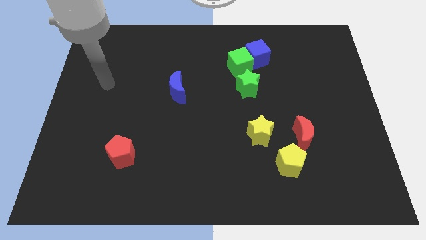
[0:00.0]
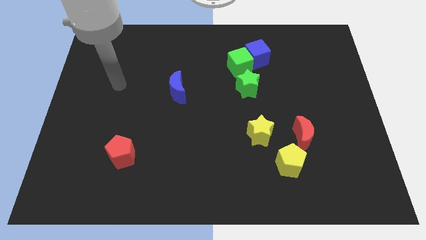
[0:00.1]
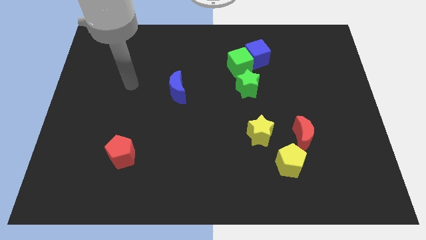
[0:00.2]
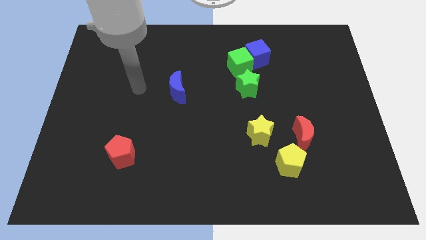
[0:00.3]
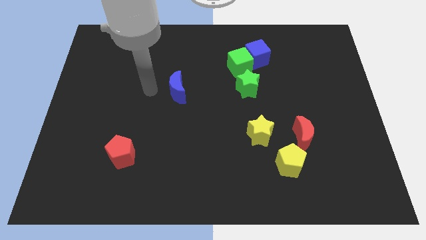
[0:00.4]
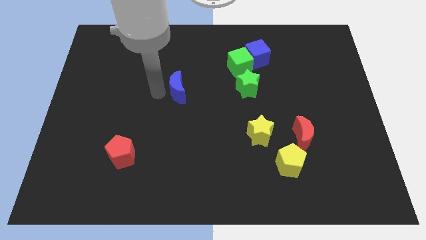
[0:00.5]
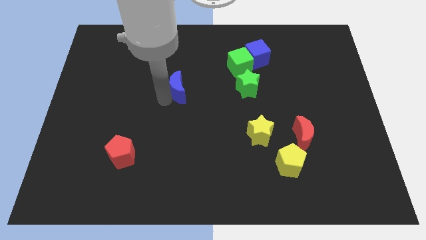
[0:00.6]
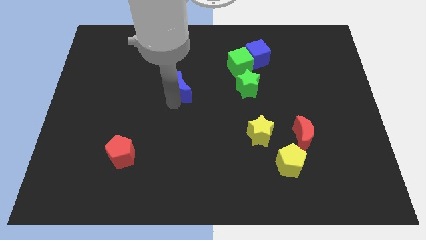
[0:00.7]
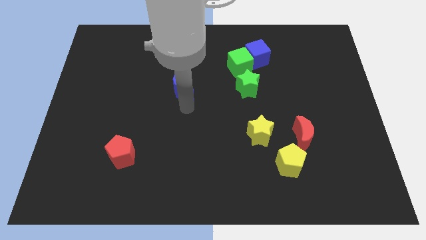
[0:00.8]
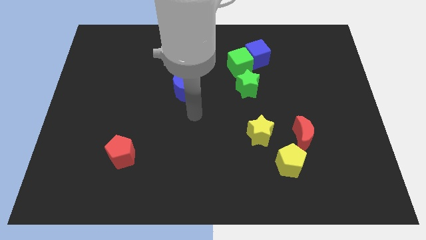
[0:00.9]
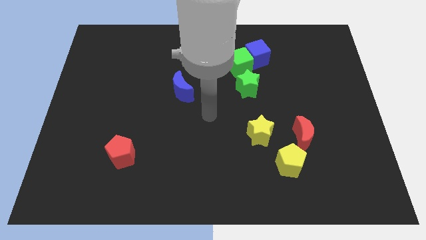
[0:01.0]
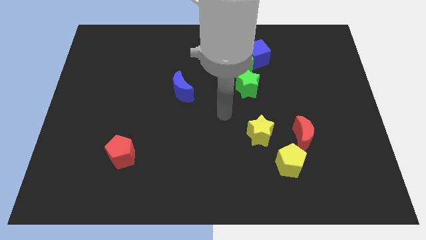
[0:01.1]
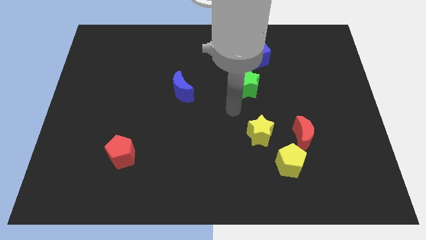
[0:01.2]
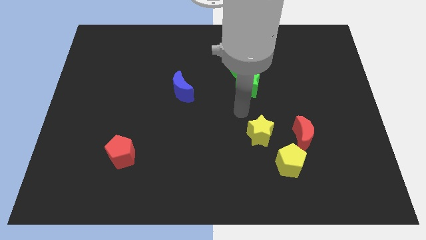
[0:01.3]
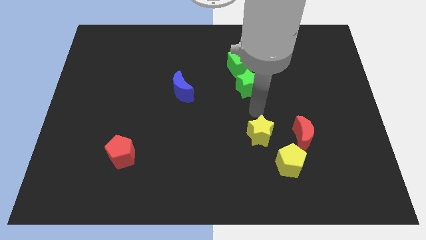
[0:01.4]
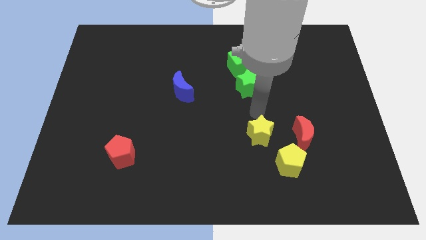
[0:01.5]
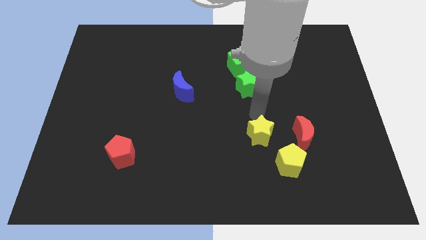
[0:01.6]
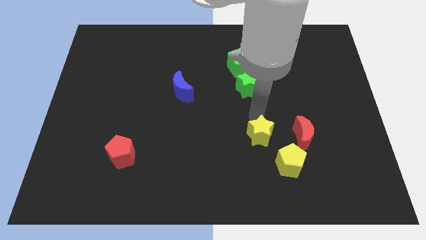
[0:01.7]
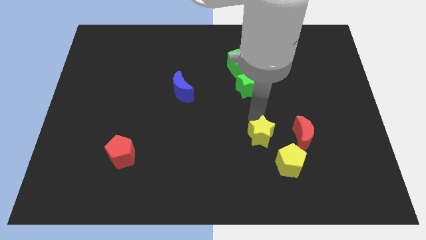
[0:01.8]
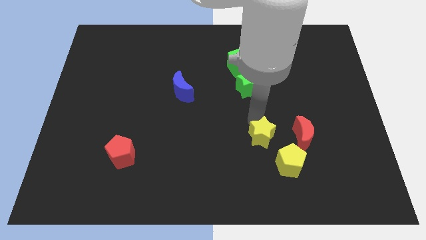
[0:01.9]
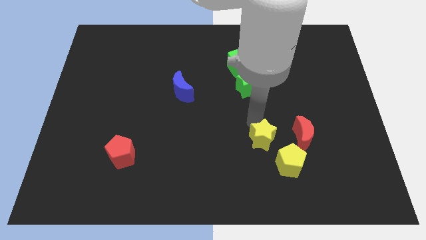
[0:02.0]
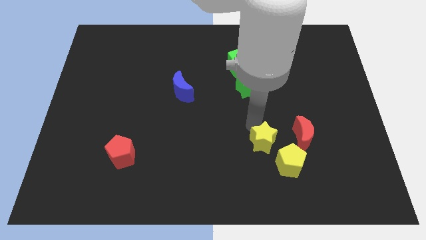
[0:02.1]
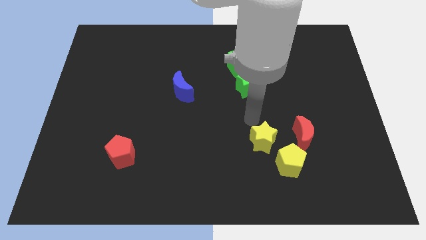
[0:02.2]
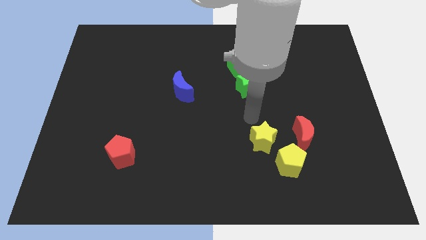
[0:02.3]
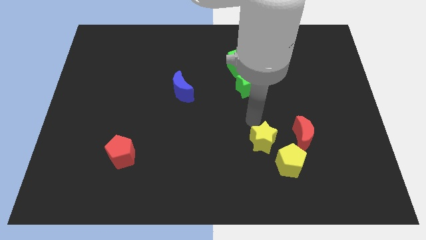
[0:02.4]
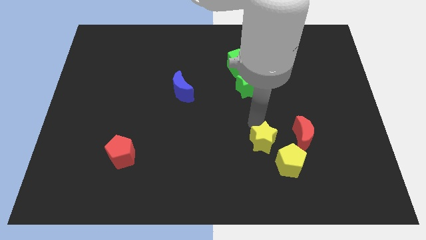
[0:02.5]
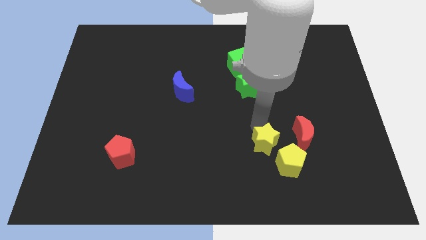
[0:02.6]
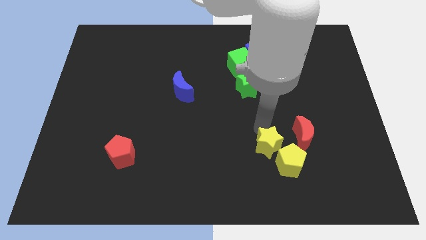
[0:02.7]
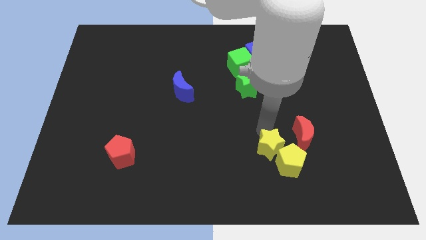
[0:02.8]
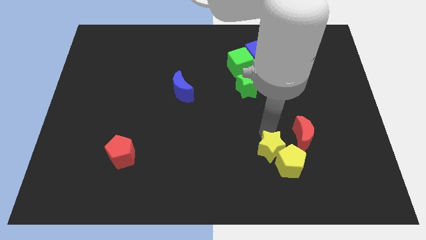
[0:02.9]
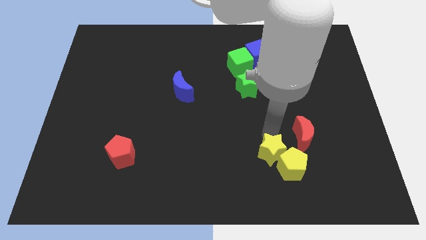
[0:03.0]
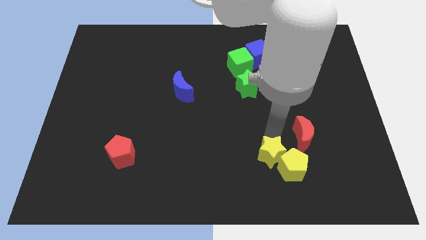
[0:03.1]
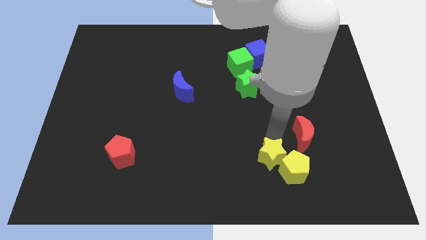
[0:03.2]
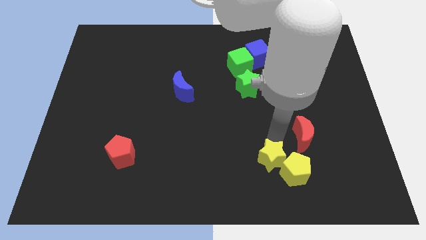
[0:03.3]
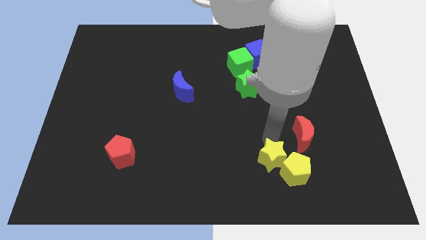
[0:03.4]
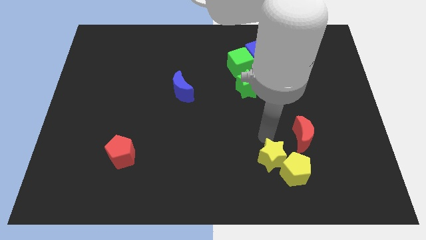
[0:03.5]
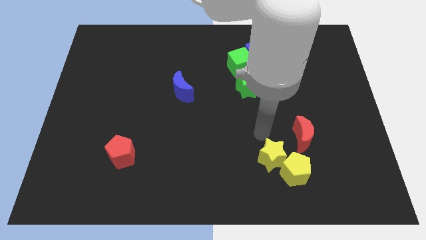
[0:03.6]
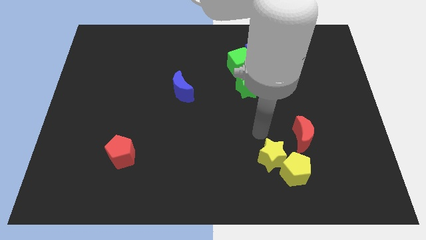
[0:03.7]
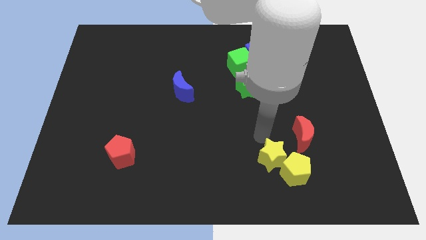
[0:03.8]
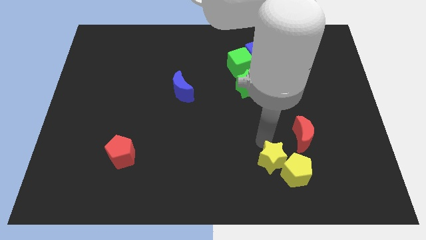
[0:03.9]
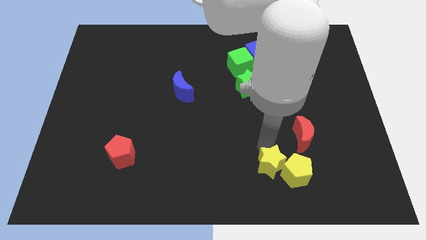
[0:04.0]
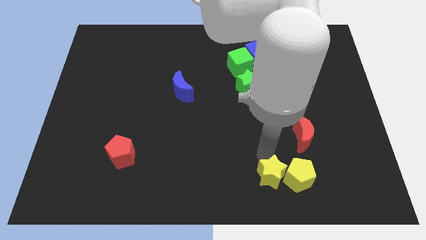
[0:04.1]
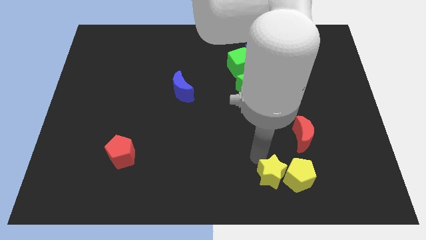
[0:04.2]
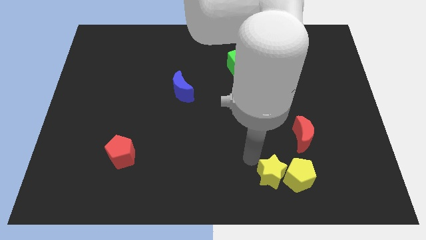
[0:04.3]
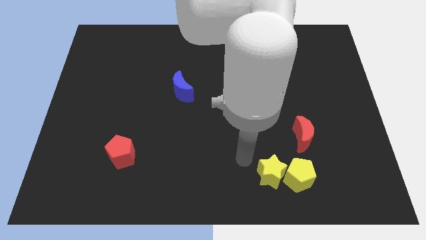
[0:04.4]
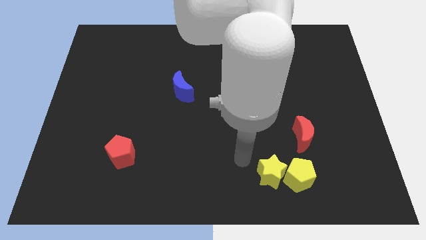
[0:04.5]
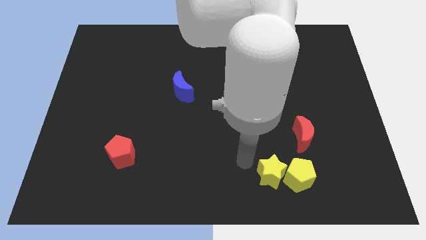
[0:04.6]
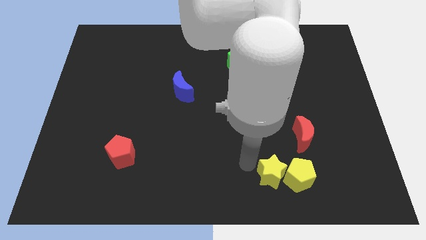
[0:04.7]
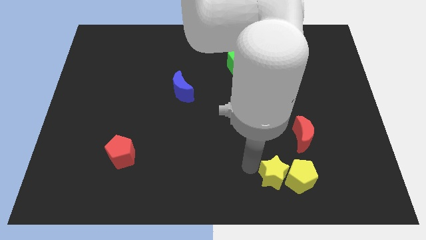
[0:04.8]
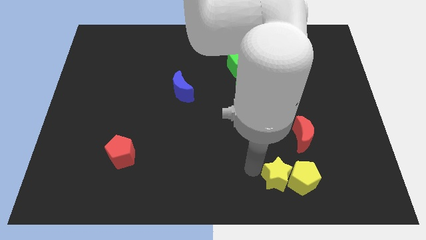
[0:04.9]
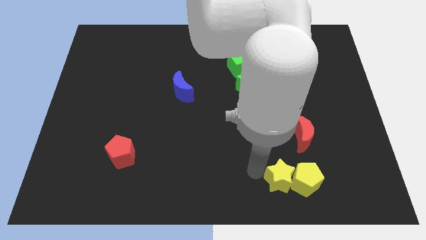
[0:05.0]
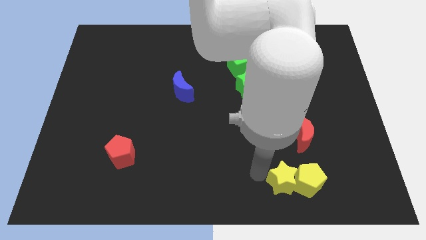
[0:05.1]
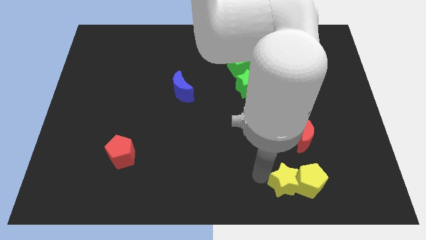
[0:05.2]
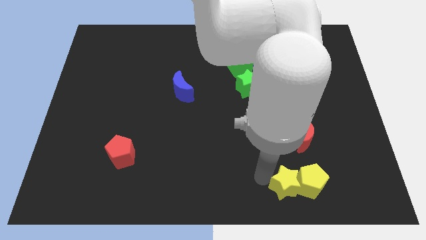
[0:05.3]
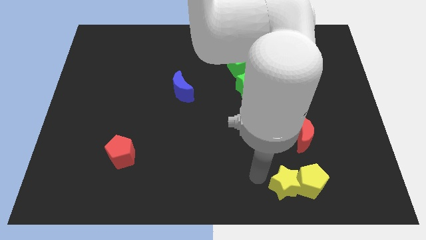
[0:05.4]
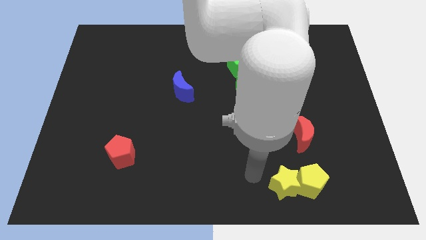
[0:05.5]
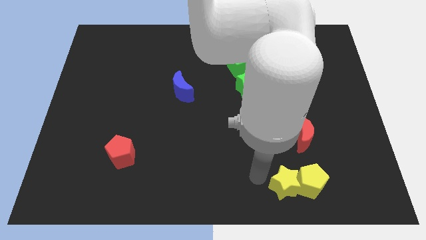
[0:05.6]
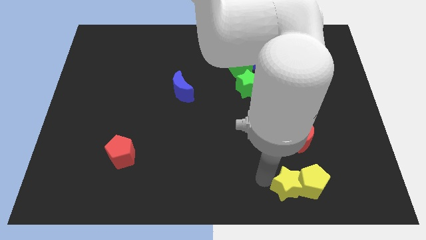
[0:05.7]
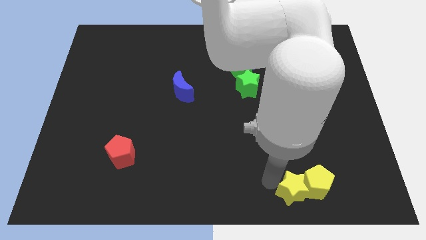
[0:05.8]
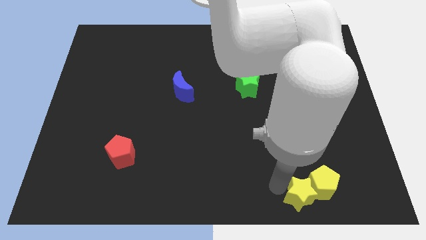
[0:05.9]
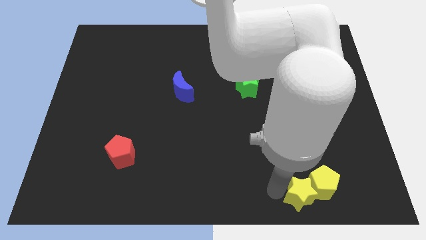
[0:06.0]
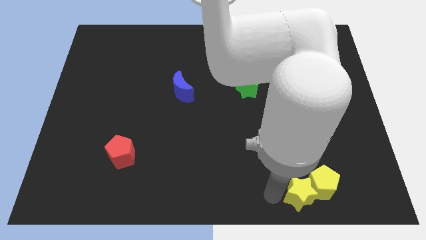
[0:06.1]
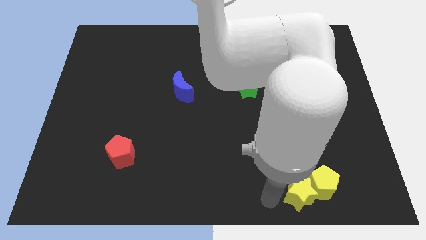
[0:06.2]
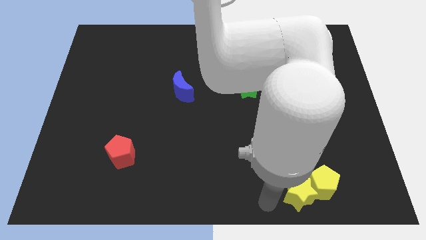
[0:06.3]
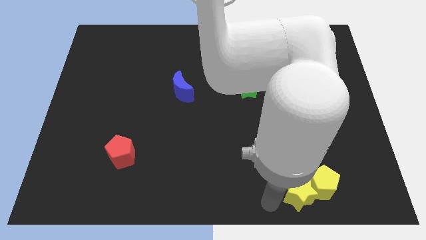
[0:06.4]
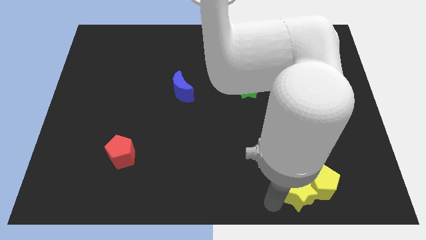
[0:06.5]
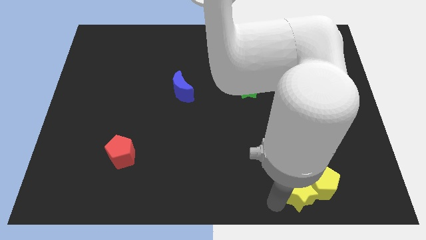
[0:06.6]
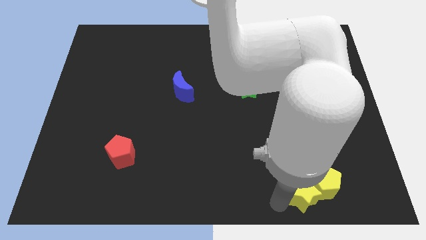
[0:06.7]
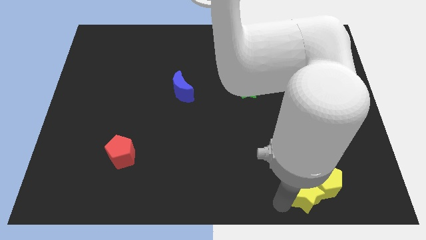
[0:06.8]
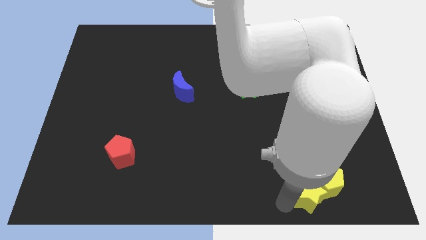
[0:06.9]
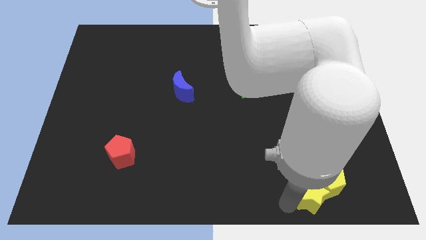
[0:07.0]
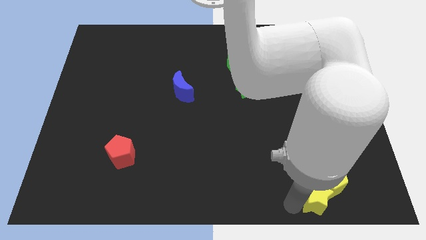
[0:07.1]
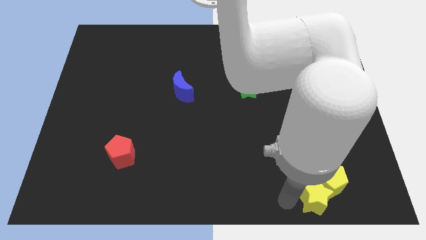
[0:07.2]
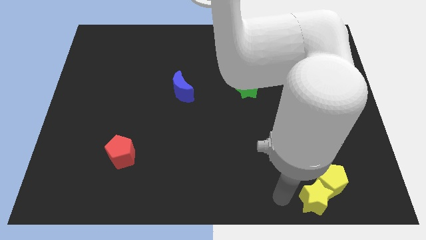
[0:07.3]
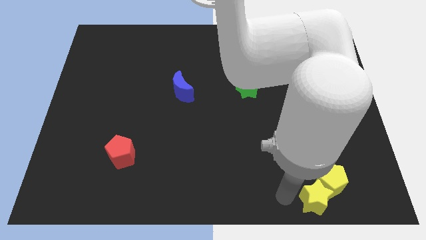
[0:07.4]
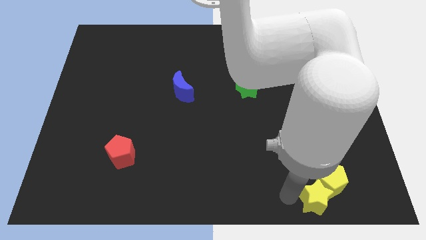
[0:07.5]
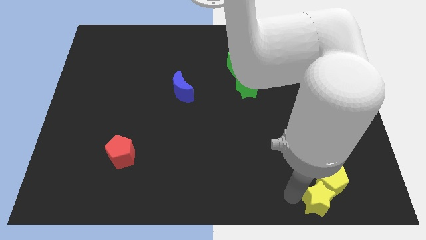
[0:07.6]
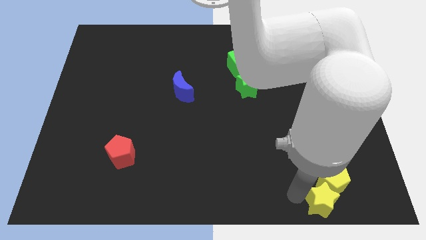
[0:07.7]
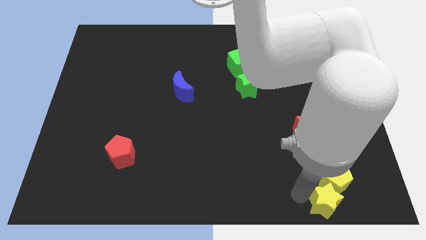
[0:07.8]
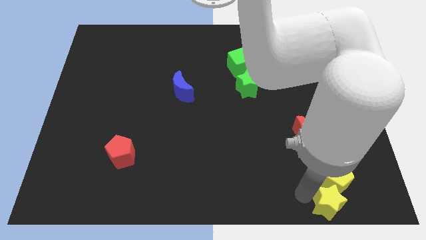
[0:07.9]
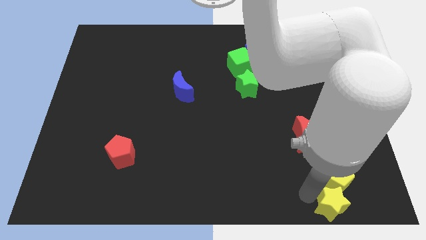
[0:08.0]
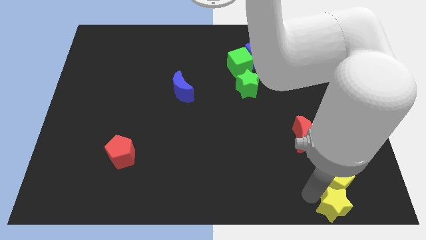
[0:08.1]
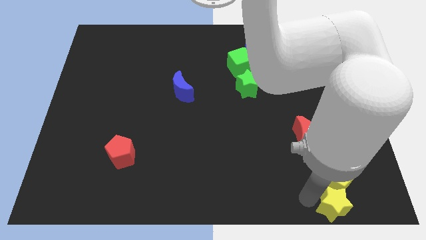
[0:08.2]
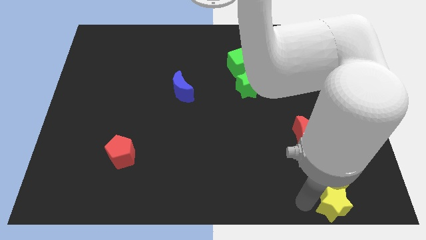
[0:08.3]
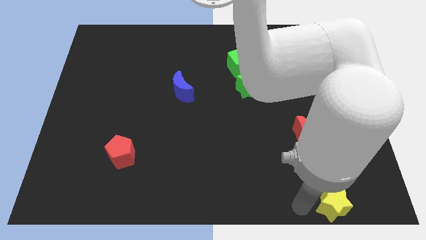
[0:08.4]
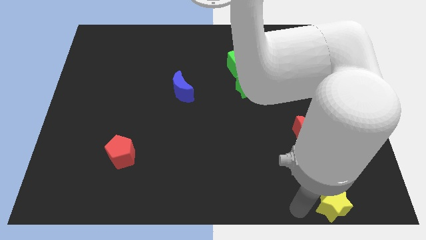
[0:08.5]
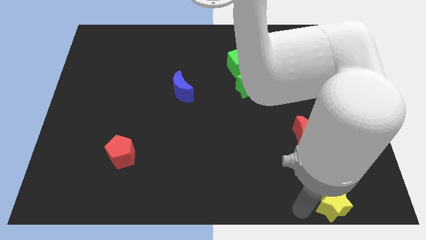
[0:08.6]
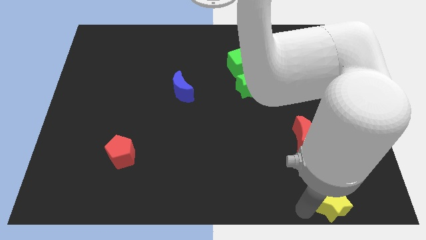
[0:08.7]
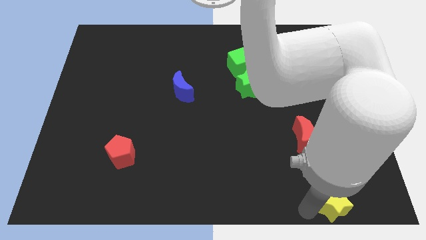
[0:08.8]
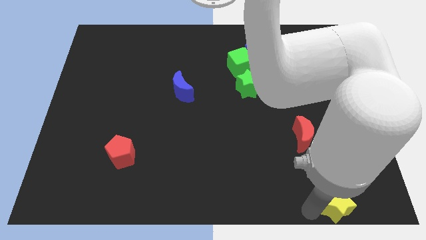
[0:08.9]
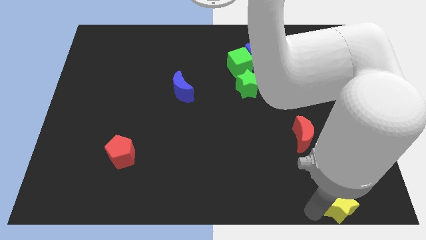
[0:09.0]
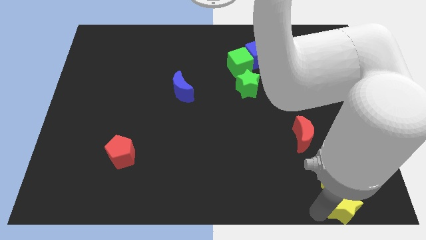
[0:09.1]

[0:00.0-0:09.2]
put the yellow star to the bottom right corner
